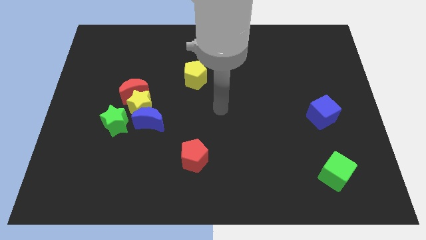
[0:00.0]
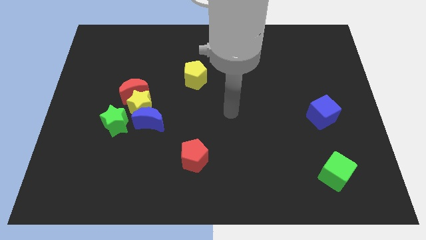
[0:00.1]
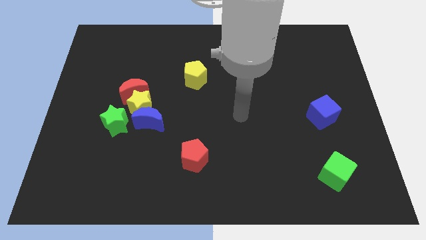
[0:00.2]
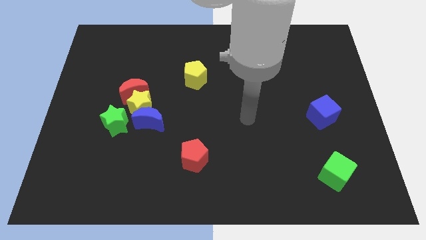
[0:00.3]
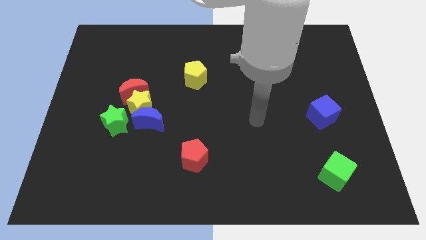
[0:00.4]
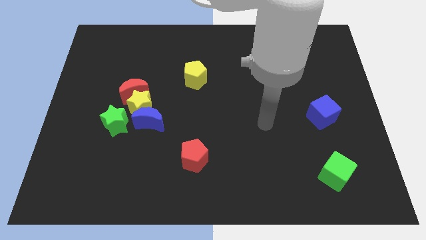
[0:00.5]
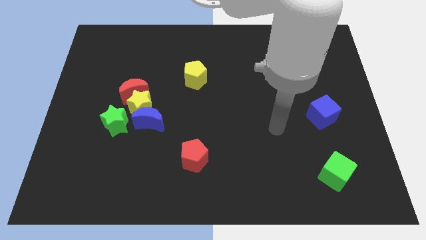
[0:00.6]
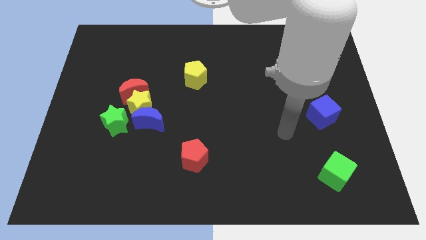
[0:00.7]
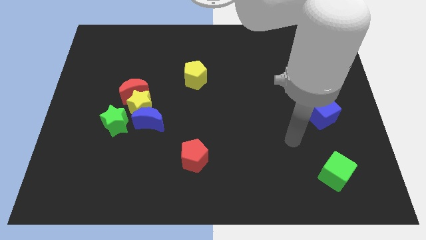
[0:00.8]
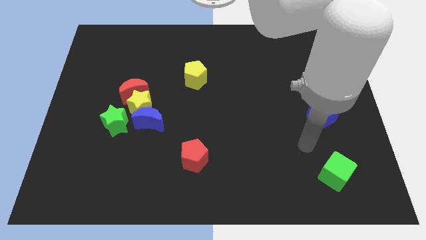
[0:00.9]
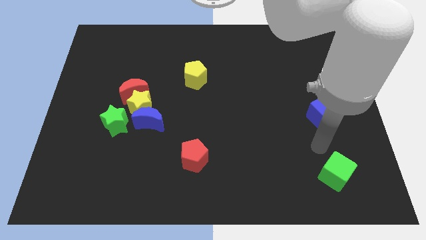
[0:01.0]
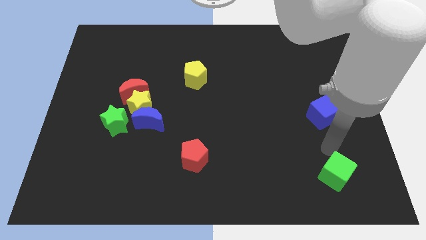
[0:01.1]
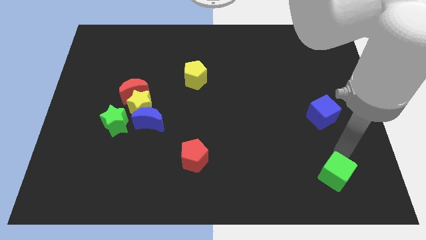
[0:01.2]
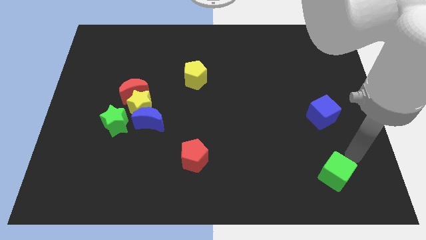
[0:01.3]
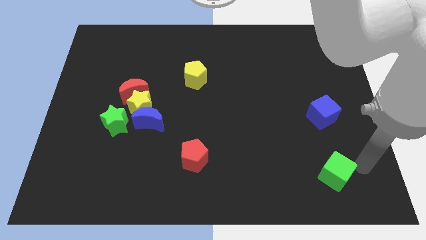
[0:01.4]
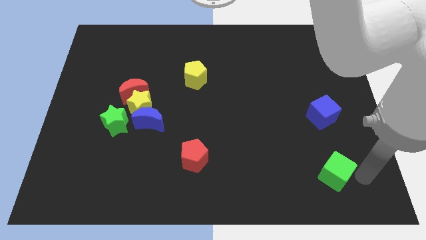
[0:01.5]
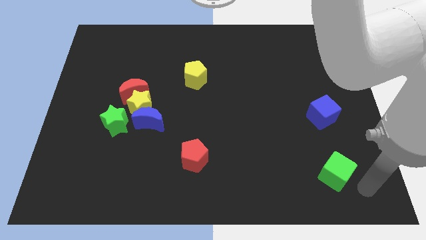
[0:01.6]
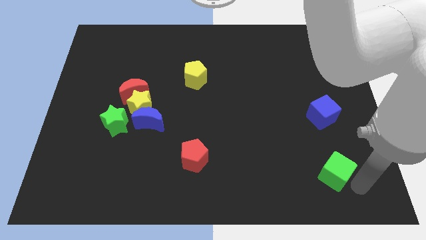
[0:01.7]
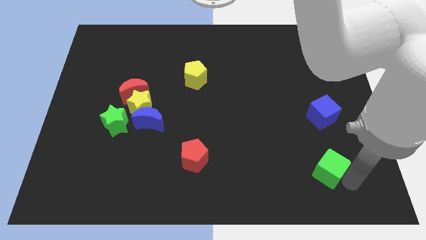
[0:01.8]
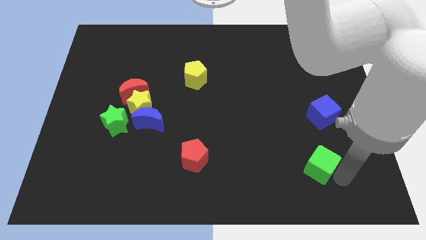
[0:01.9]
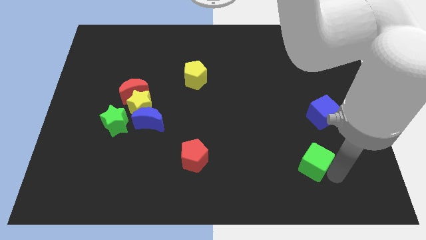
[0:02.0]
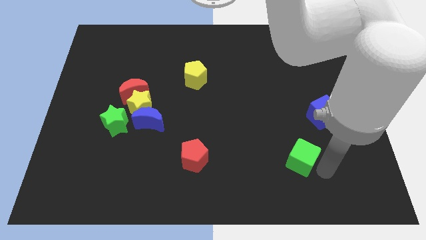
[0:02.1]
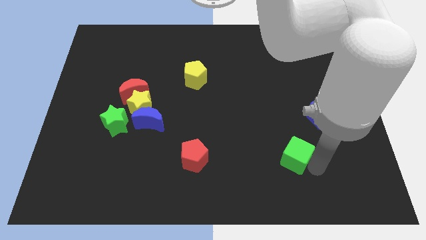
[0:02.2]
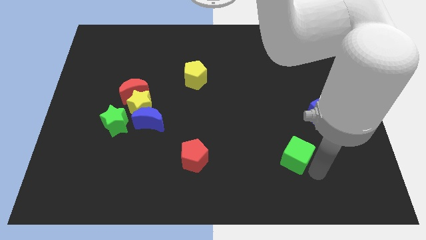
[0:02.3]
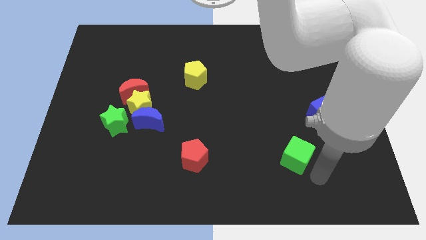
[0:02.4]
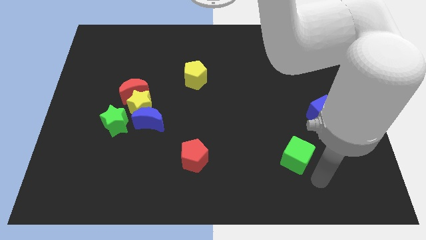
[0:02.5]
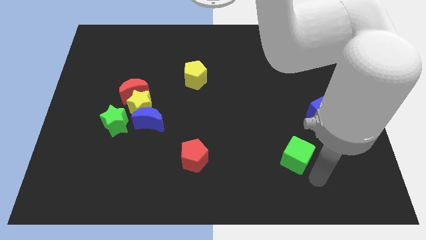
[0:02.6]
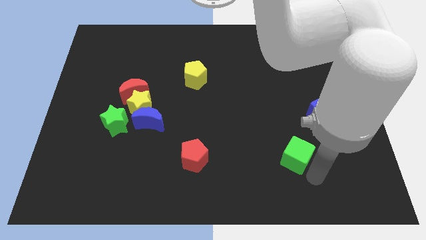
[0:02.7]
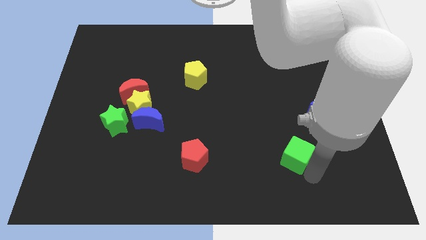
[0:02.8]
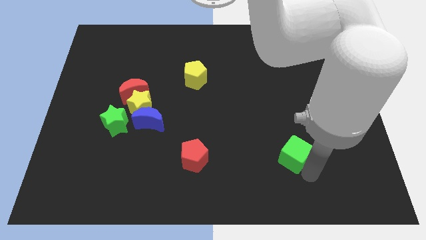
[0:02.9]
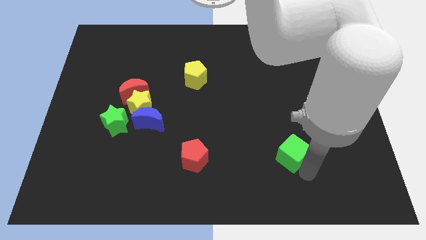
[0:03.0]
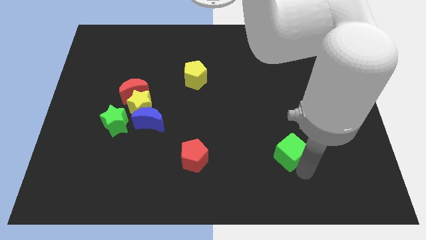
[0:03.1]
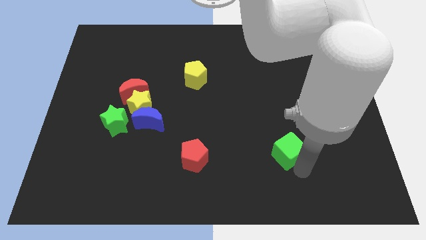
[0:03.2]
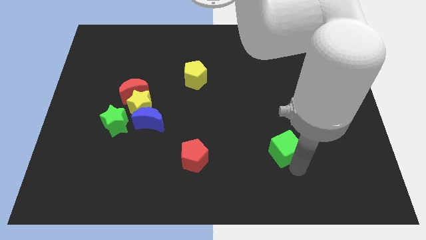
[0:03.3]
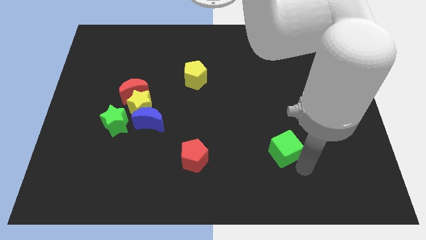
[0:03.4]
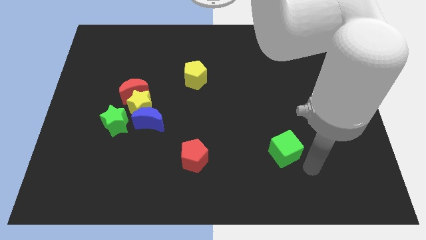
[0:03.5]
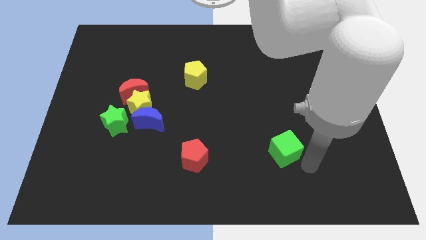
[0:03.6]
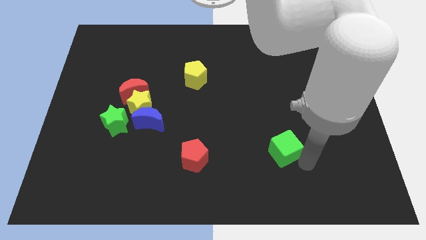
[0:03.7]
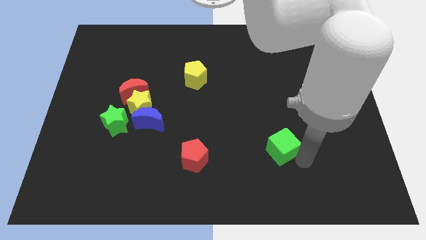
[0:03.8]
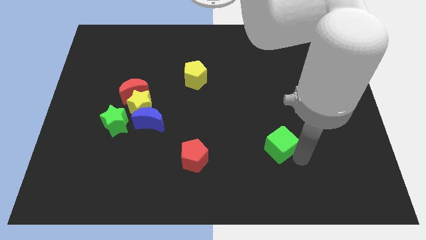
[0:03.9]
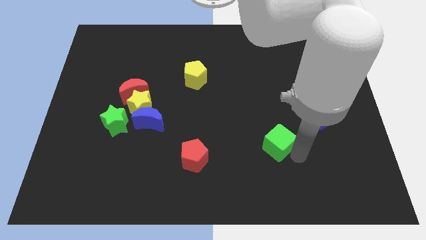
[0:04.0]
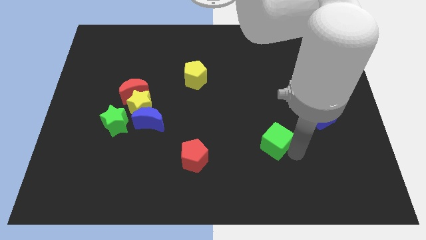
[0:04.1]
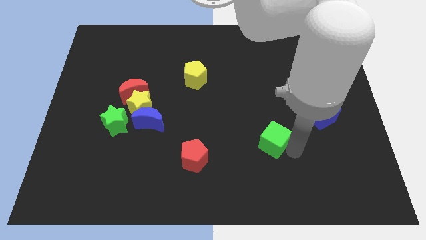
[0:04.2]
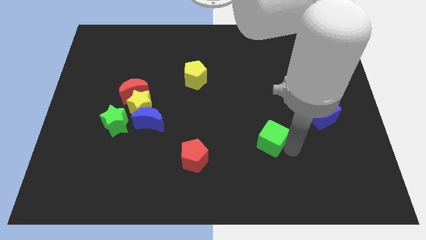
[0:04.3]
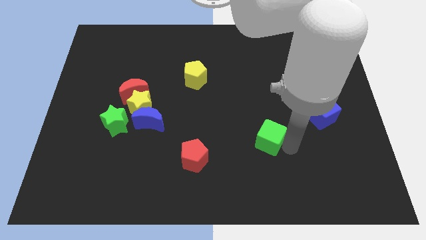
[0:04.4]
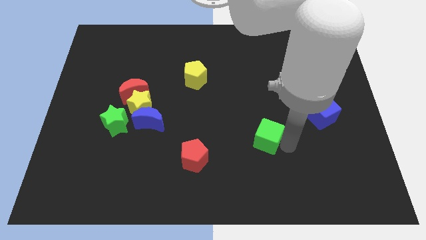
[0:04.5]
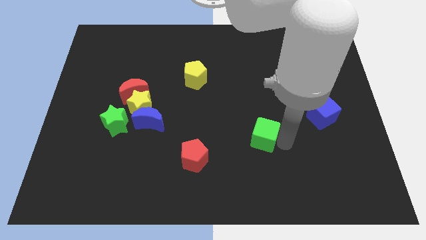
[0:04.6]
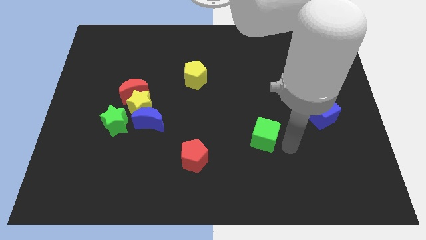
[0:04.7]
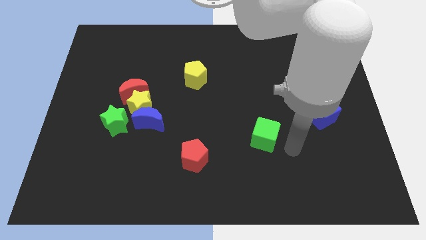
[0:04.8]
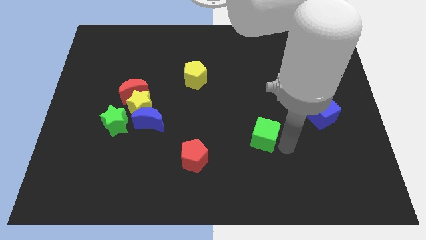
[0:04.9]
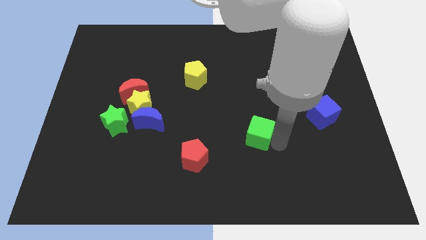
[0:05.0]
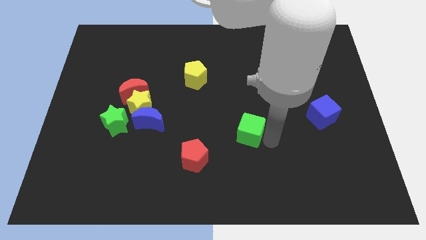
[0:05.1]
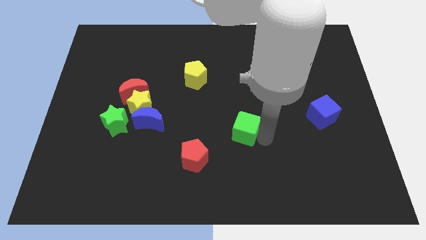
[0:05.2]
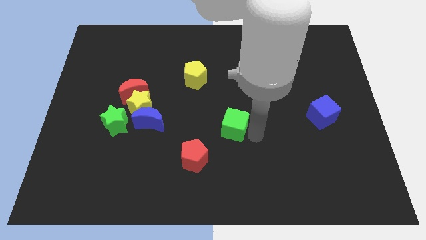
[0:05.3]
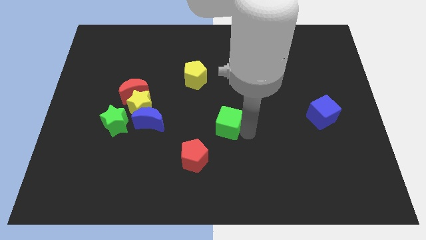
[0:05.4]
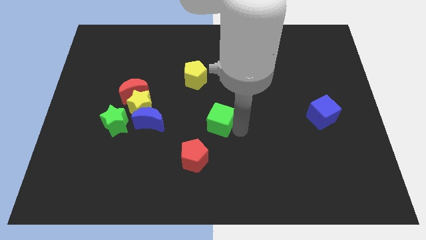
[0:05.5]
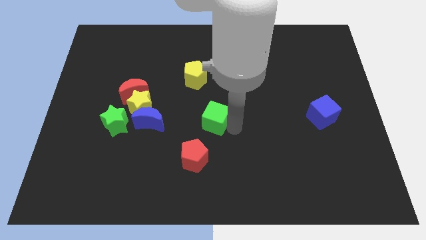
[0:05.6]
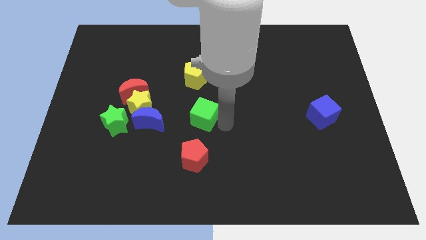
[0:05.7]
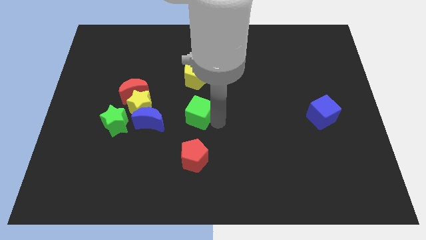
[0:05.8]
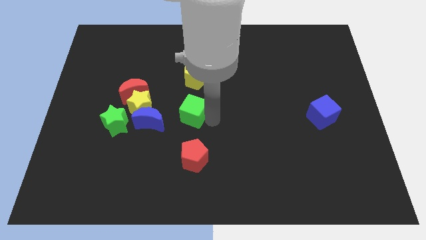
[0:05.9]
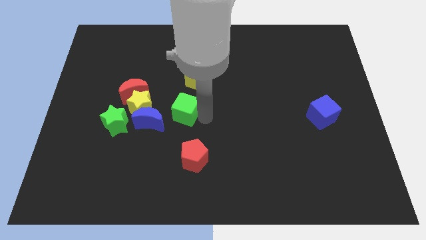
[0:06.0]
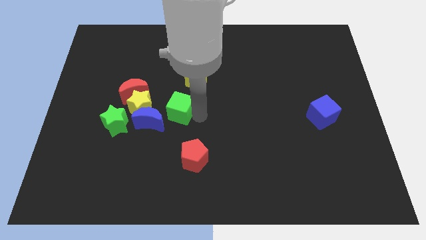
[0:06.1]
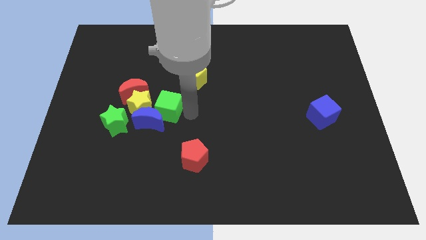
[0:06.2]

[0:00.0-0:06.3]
put the green cube close to the yellow star

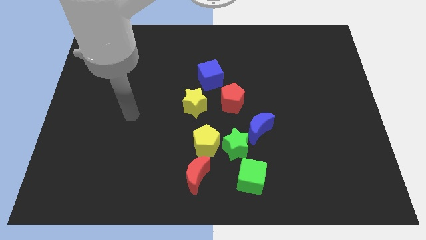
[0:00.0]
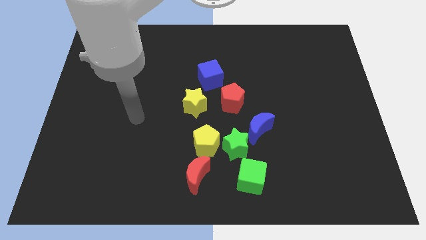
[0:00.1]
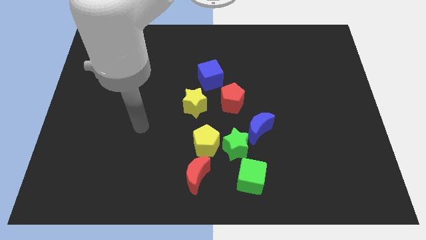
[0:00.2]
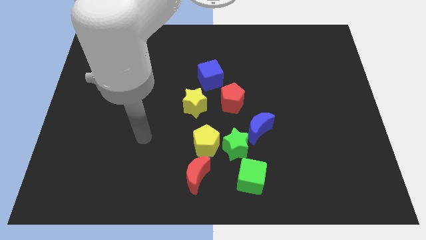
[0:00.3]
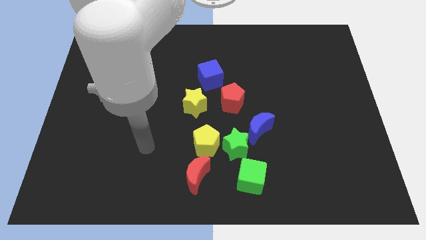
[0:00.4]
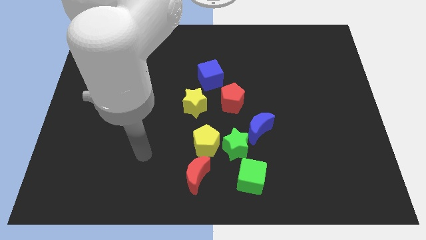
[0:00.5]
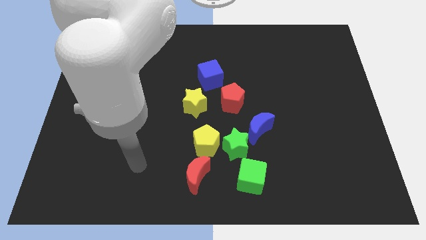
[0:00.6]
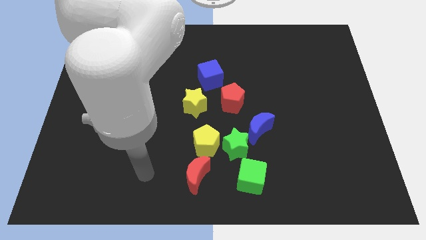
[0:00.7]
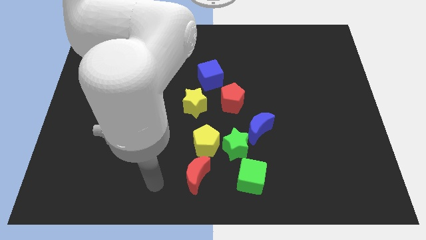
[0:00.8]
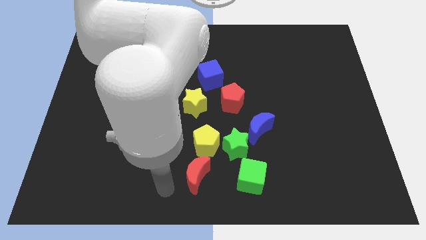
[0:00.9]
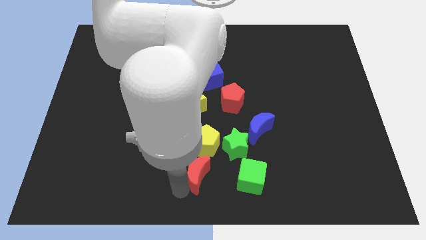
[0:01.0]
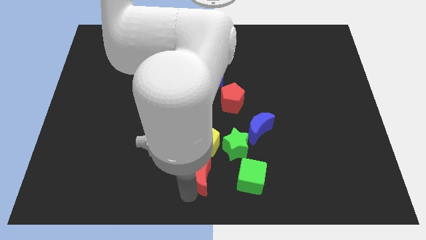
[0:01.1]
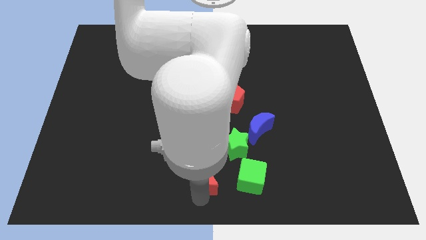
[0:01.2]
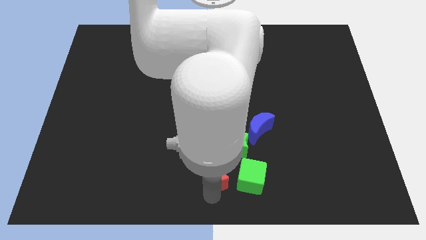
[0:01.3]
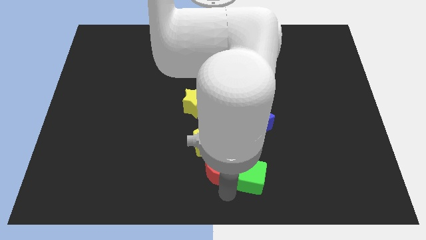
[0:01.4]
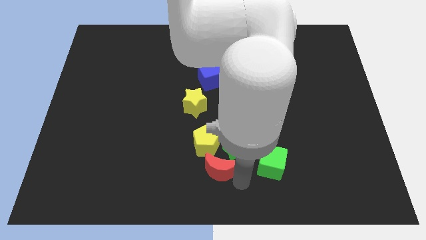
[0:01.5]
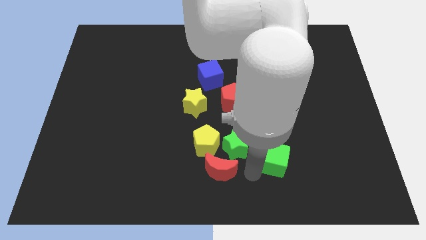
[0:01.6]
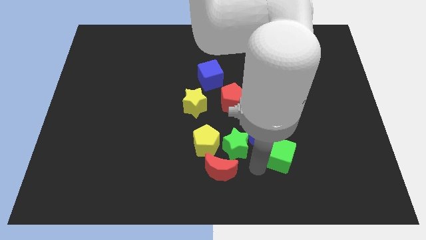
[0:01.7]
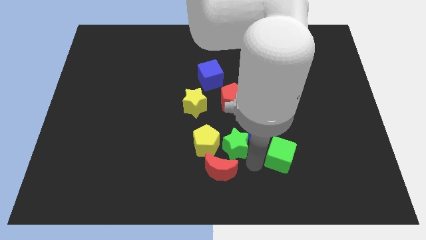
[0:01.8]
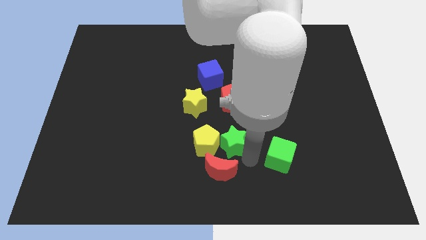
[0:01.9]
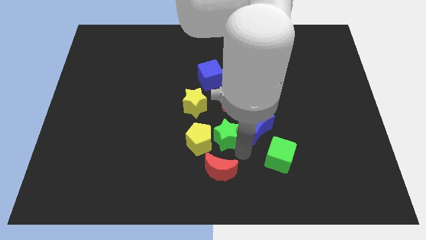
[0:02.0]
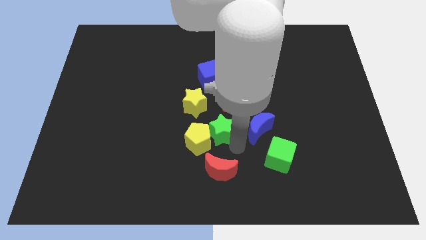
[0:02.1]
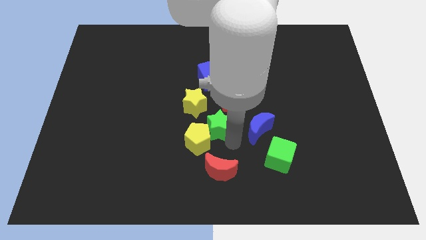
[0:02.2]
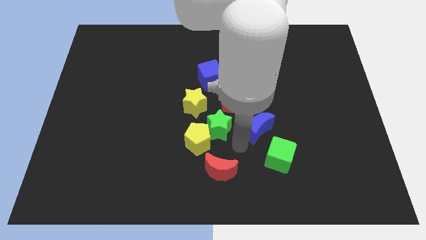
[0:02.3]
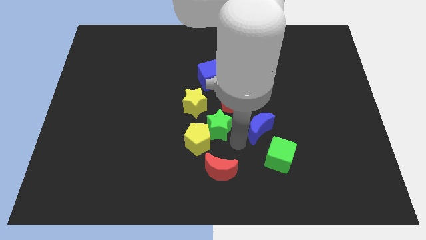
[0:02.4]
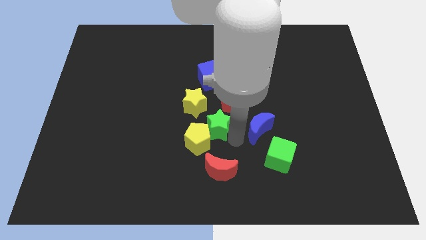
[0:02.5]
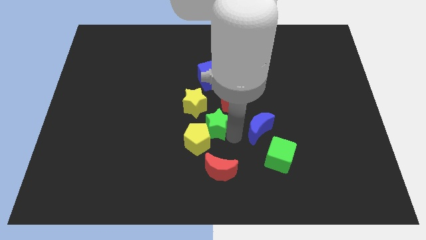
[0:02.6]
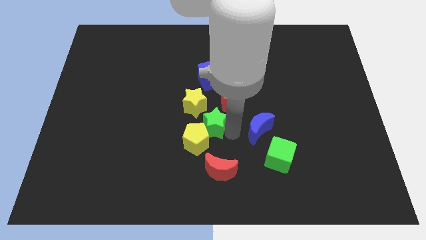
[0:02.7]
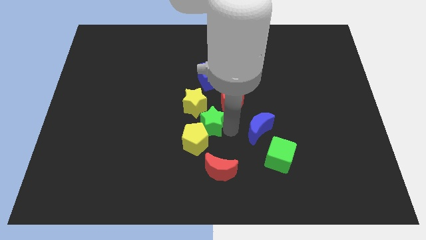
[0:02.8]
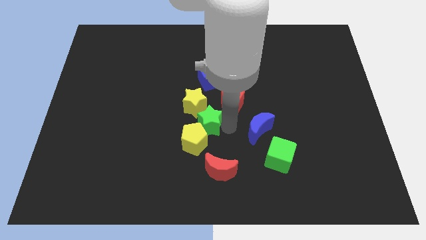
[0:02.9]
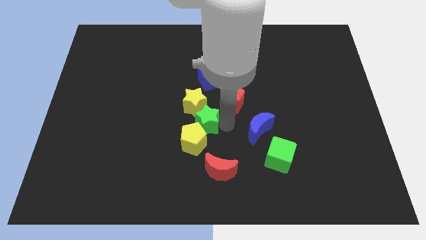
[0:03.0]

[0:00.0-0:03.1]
put the green star next to the yellow star
